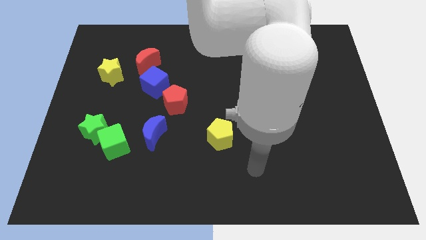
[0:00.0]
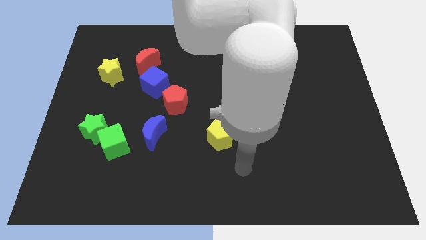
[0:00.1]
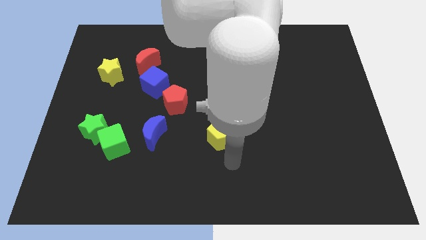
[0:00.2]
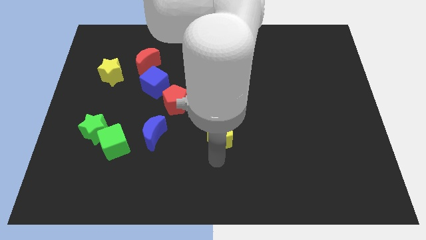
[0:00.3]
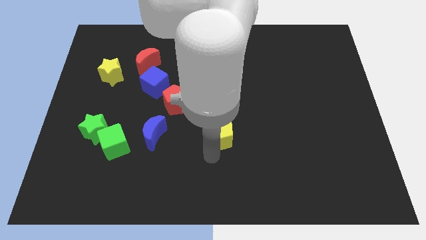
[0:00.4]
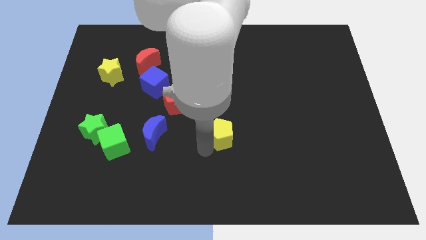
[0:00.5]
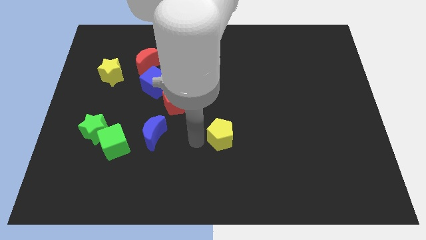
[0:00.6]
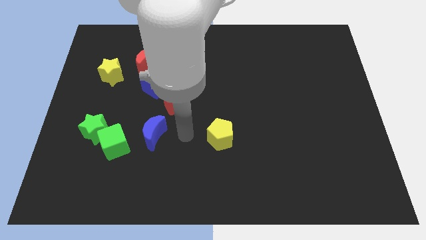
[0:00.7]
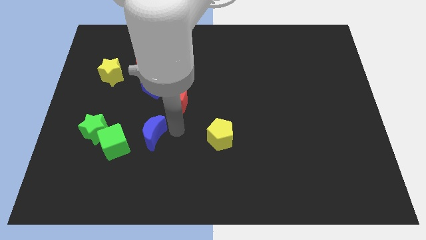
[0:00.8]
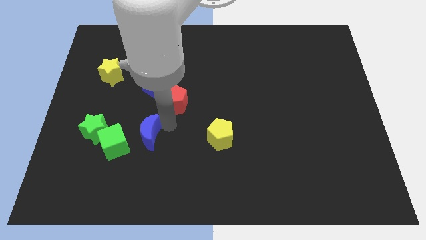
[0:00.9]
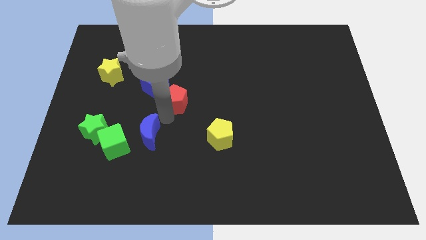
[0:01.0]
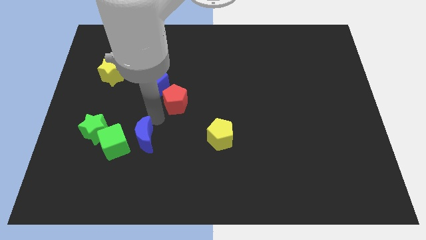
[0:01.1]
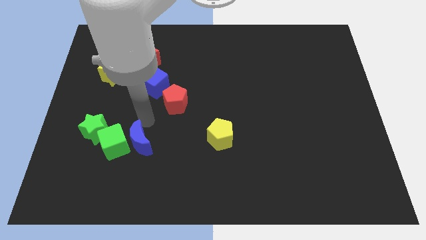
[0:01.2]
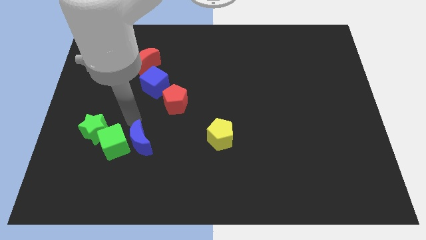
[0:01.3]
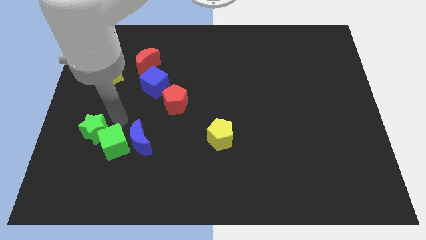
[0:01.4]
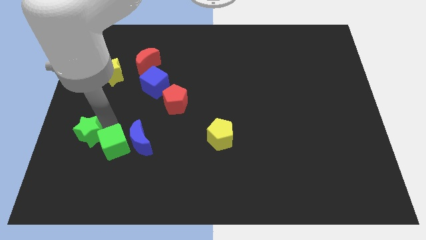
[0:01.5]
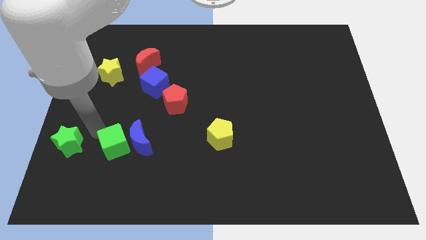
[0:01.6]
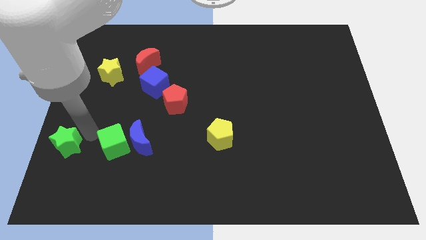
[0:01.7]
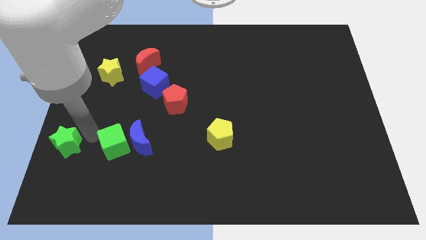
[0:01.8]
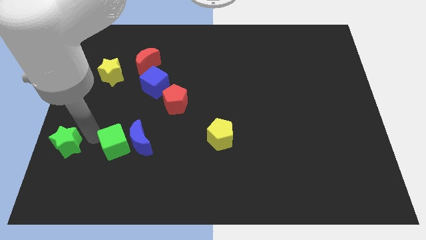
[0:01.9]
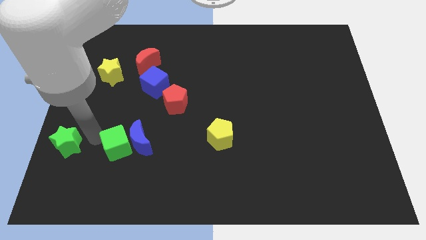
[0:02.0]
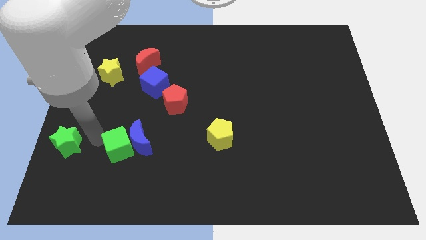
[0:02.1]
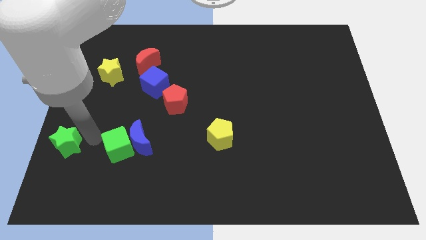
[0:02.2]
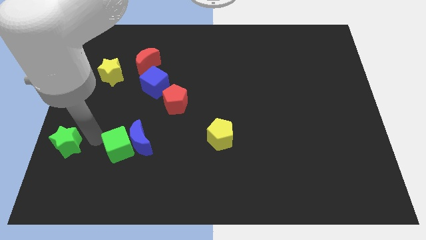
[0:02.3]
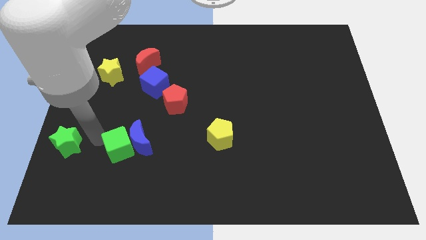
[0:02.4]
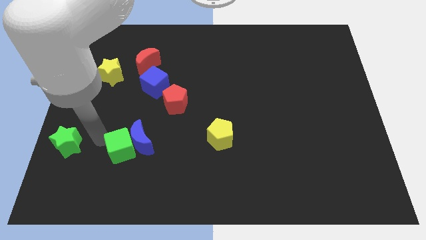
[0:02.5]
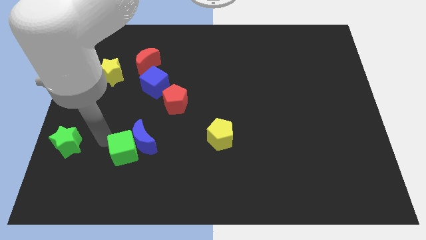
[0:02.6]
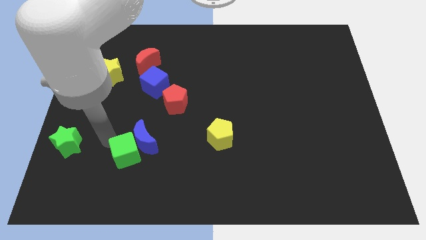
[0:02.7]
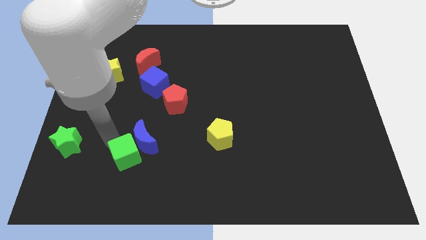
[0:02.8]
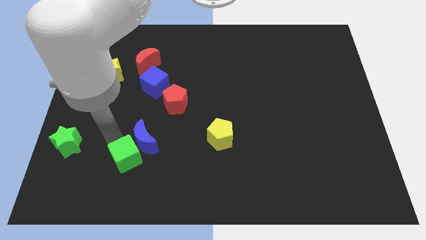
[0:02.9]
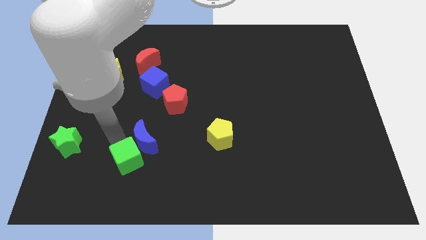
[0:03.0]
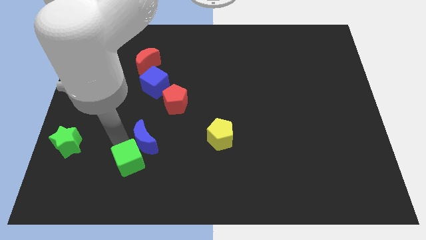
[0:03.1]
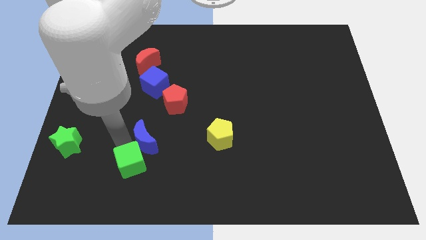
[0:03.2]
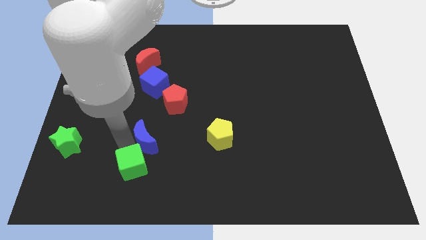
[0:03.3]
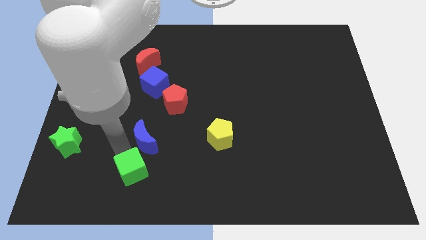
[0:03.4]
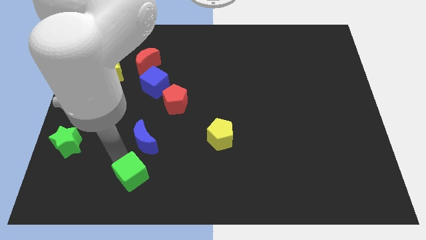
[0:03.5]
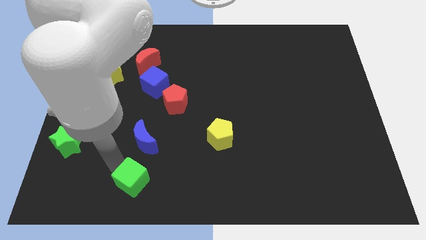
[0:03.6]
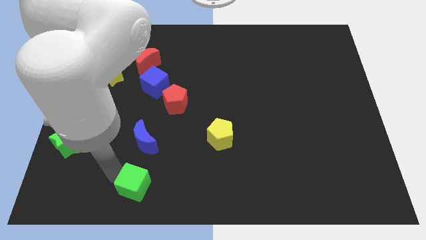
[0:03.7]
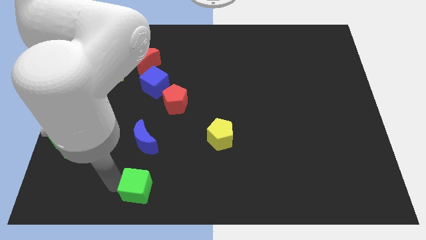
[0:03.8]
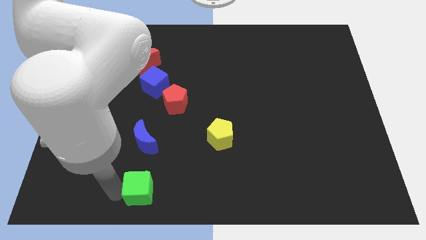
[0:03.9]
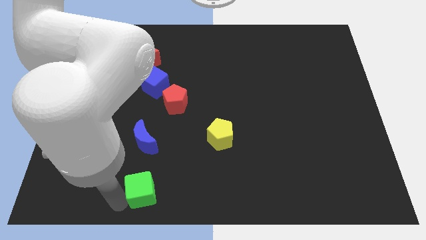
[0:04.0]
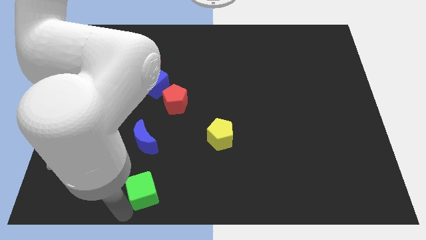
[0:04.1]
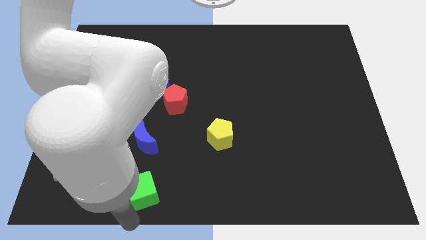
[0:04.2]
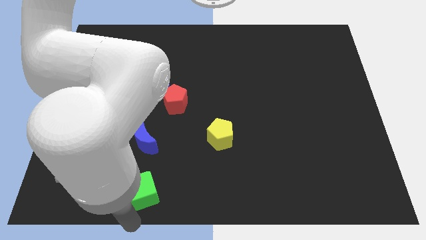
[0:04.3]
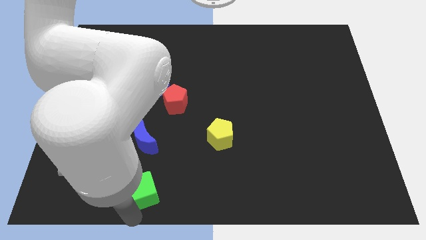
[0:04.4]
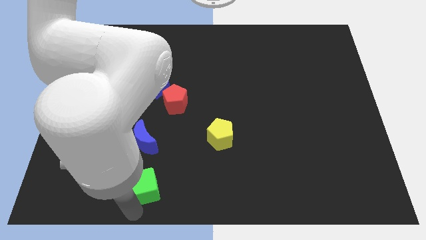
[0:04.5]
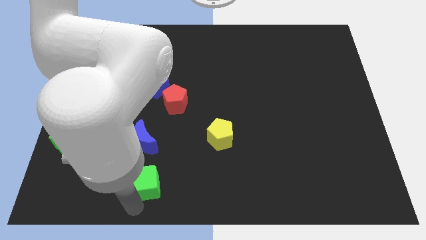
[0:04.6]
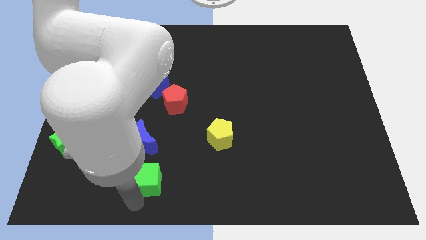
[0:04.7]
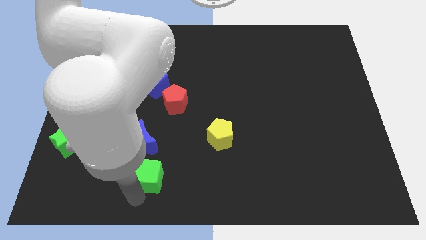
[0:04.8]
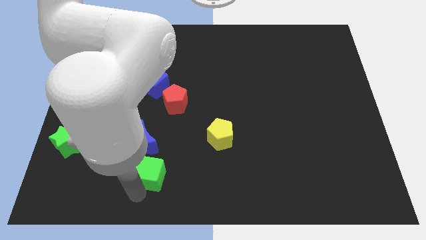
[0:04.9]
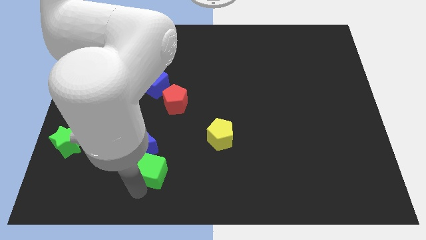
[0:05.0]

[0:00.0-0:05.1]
slide the green cube to the right a little

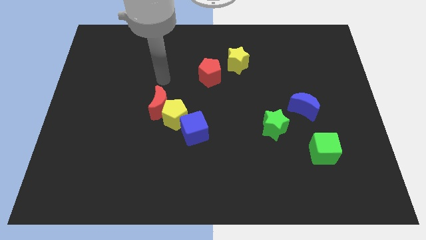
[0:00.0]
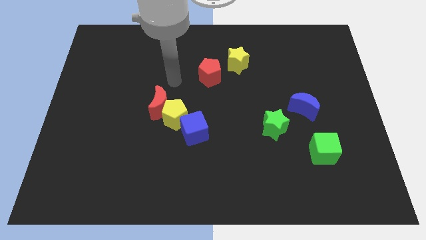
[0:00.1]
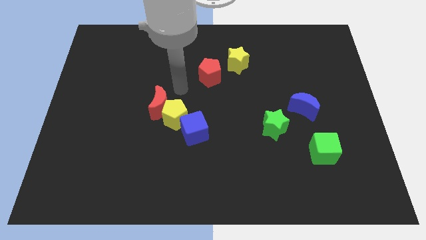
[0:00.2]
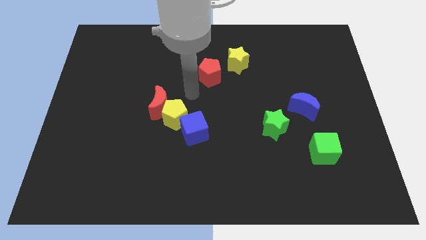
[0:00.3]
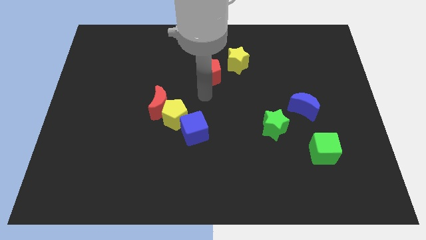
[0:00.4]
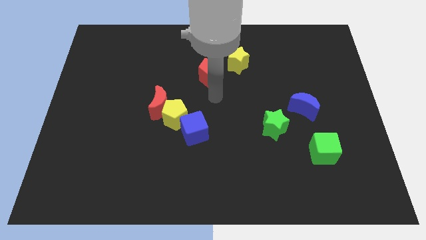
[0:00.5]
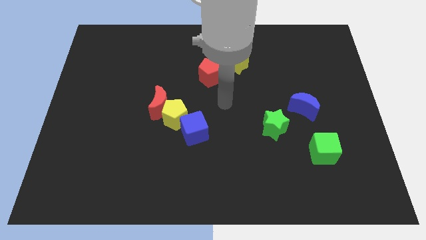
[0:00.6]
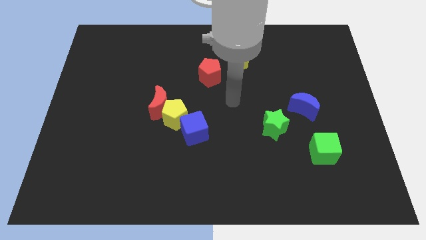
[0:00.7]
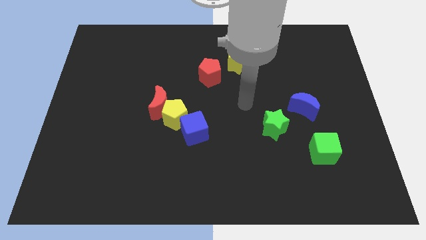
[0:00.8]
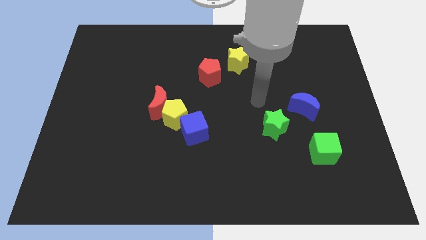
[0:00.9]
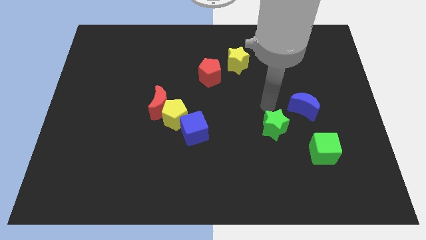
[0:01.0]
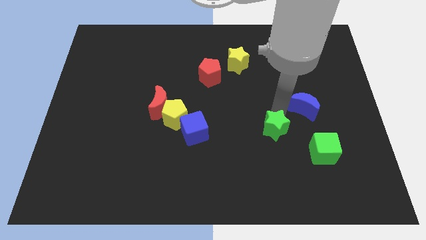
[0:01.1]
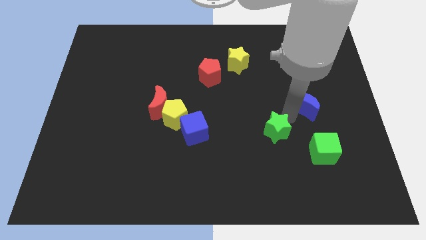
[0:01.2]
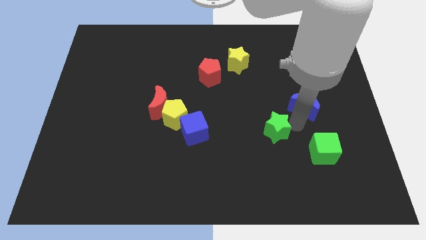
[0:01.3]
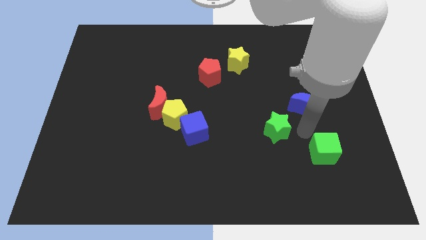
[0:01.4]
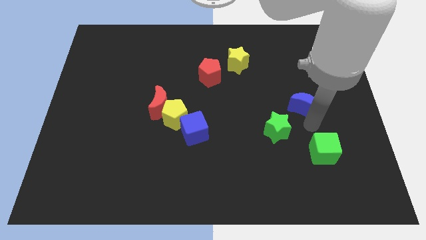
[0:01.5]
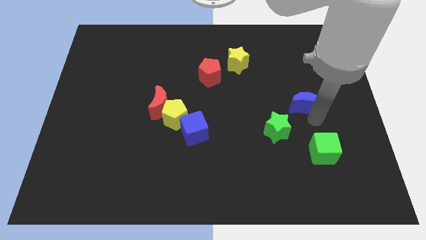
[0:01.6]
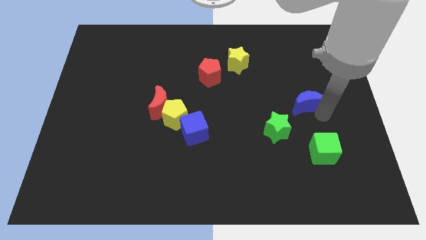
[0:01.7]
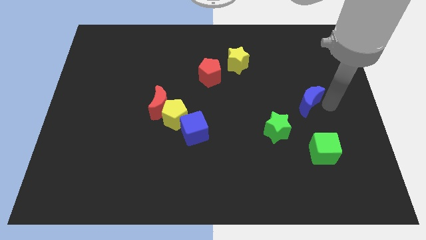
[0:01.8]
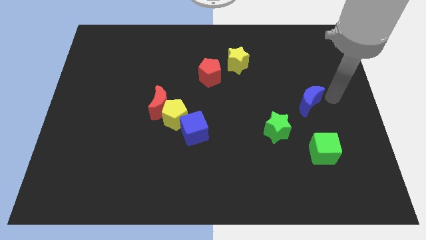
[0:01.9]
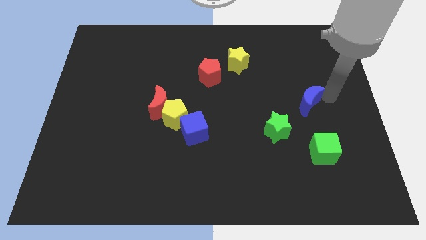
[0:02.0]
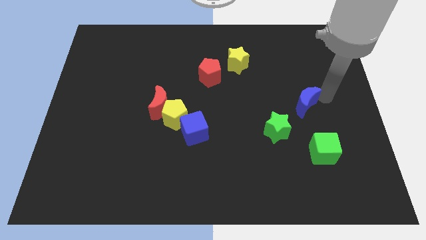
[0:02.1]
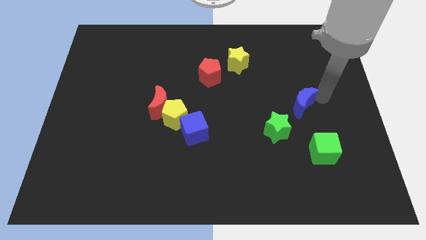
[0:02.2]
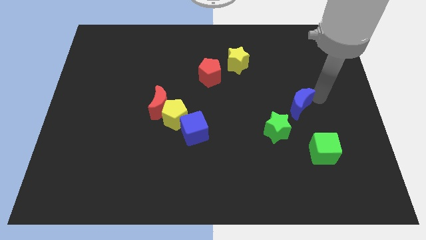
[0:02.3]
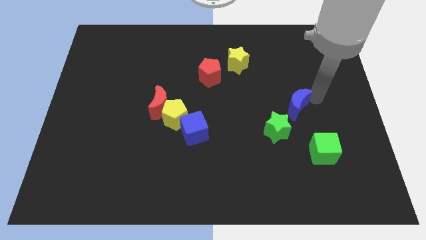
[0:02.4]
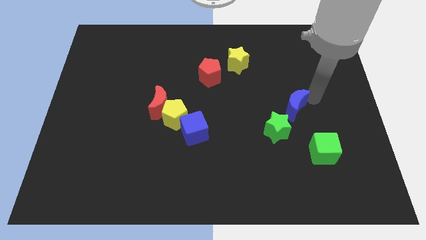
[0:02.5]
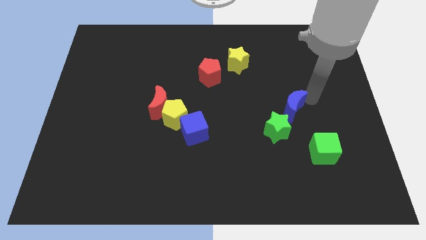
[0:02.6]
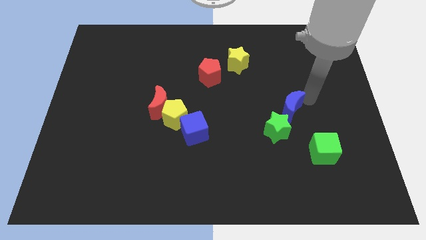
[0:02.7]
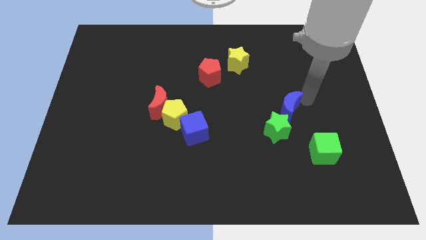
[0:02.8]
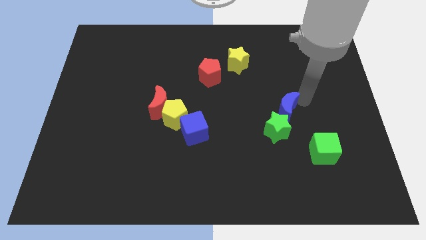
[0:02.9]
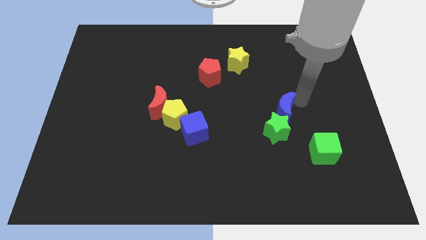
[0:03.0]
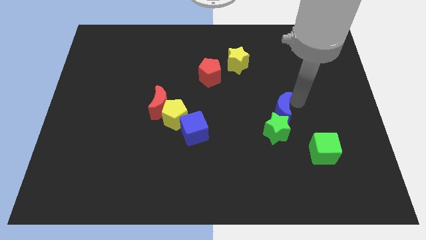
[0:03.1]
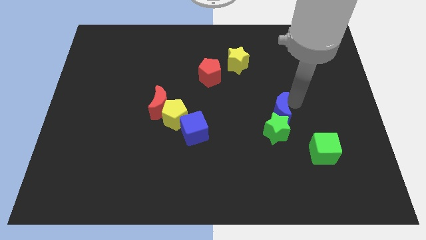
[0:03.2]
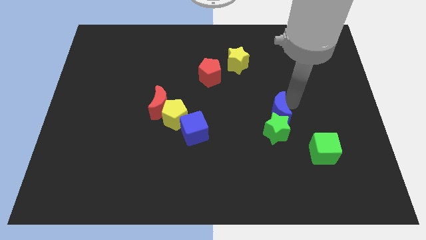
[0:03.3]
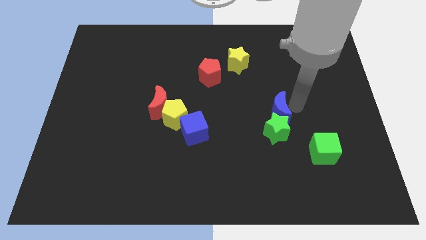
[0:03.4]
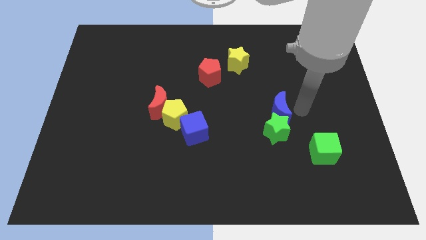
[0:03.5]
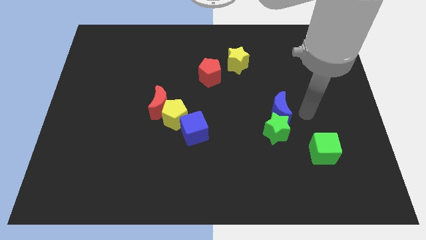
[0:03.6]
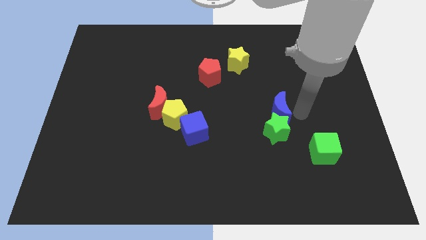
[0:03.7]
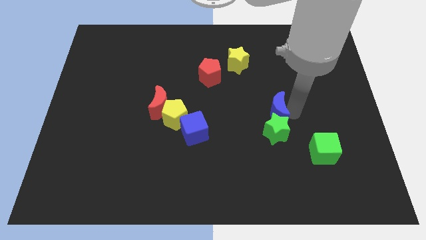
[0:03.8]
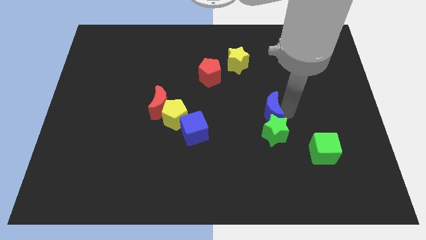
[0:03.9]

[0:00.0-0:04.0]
slightly push the blue moon left
